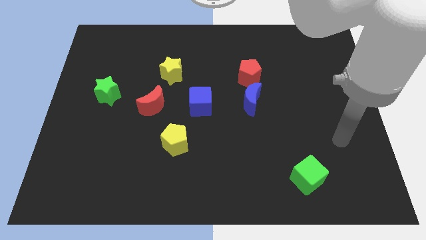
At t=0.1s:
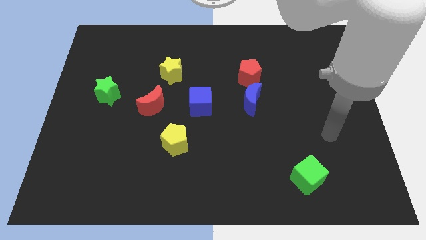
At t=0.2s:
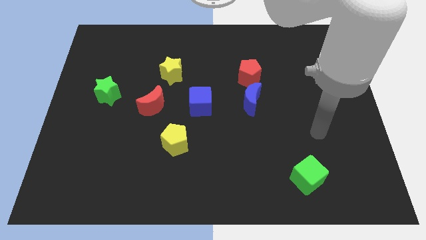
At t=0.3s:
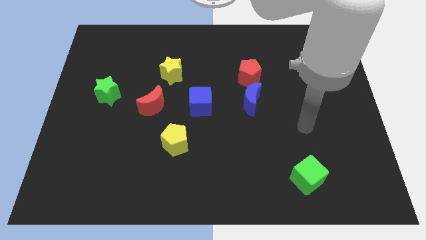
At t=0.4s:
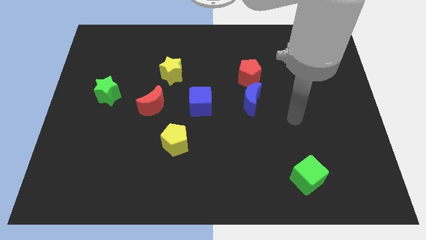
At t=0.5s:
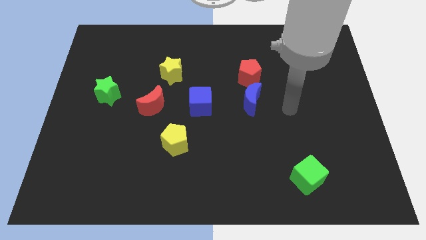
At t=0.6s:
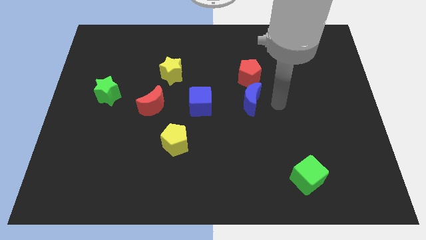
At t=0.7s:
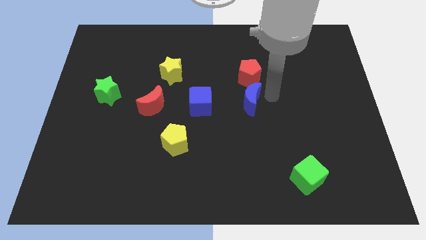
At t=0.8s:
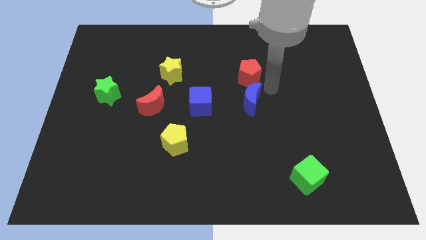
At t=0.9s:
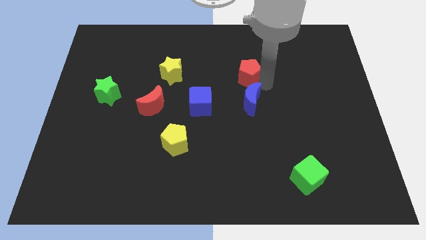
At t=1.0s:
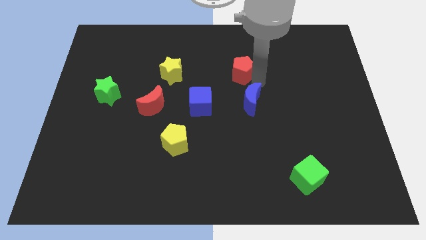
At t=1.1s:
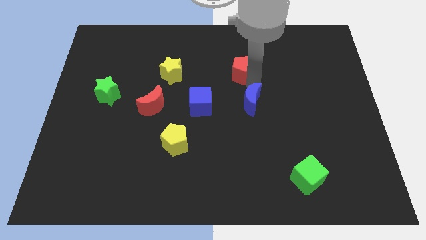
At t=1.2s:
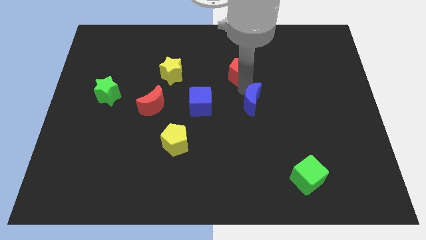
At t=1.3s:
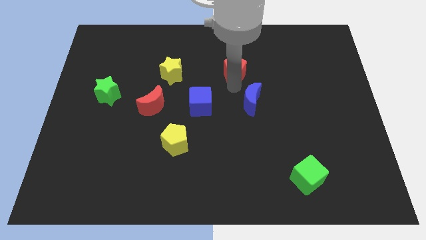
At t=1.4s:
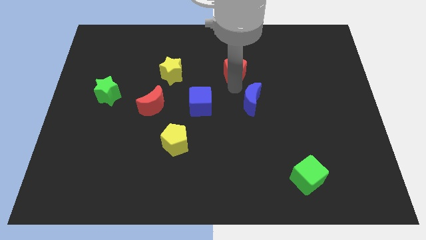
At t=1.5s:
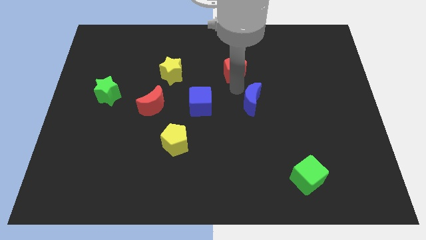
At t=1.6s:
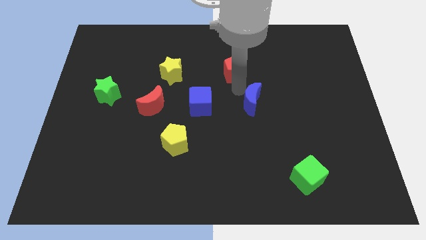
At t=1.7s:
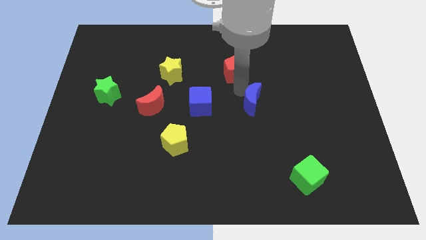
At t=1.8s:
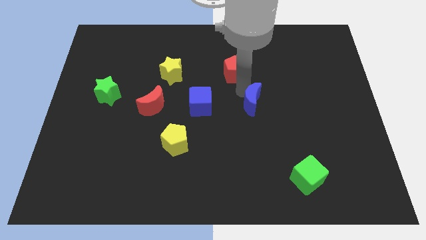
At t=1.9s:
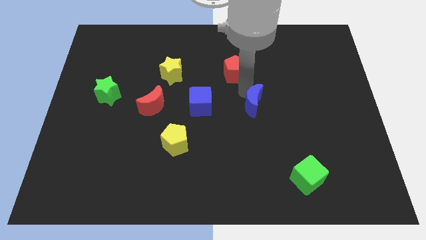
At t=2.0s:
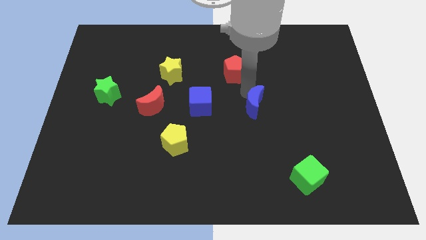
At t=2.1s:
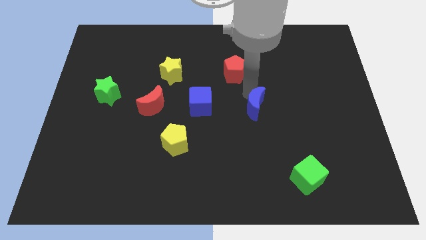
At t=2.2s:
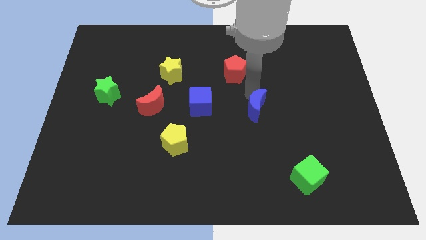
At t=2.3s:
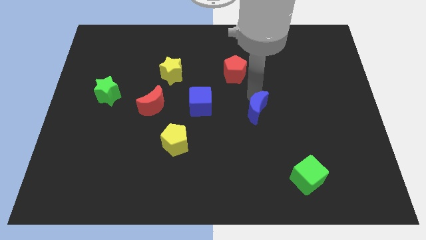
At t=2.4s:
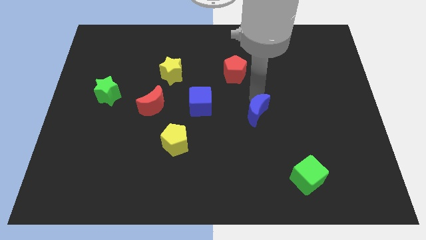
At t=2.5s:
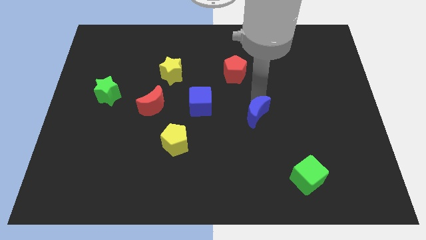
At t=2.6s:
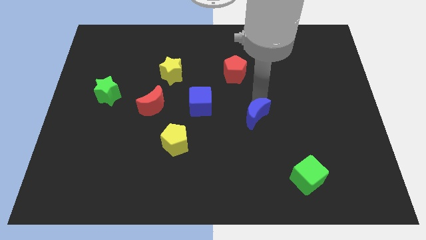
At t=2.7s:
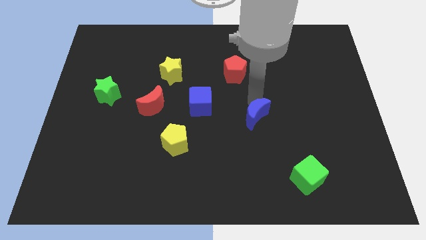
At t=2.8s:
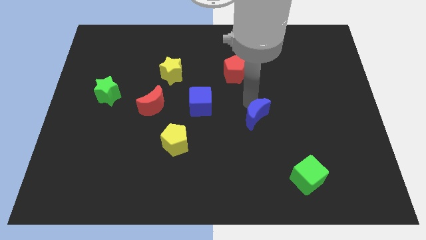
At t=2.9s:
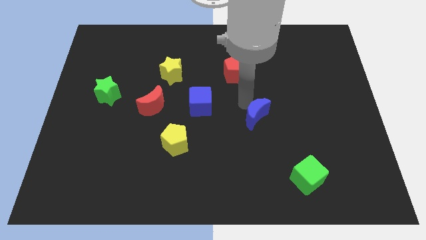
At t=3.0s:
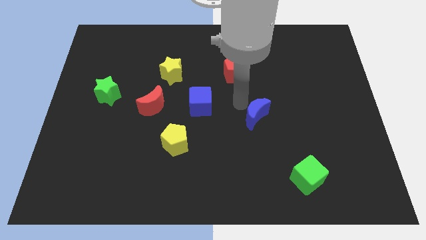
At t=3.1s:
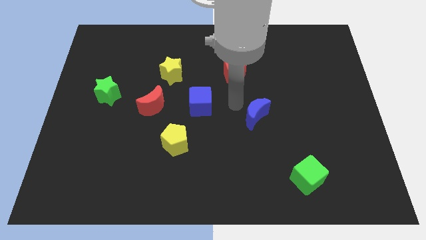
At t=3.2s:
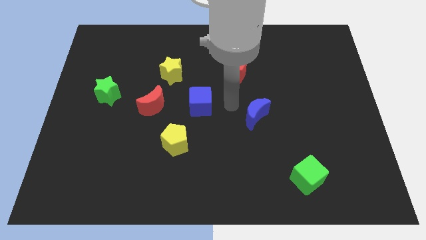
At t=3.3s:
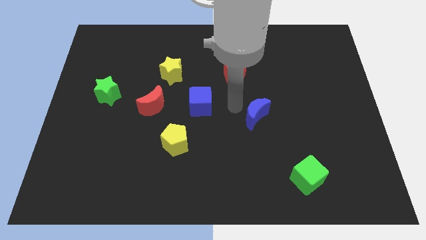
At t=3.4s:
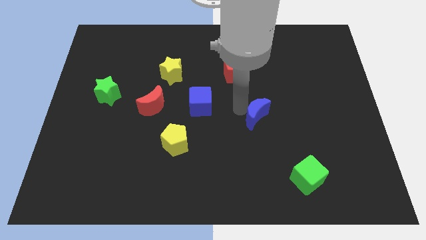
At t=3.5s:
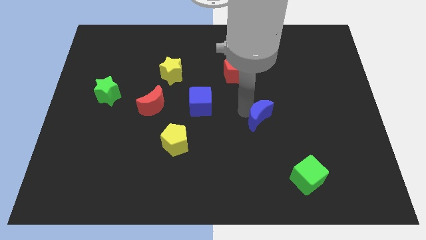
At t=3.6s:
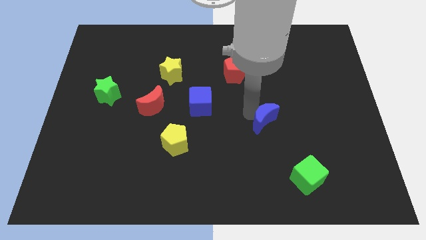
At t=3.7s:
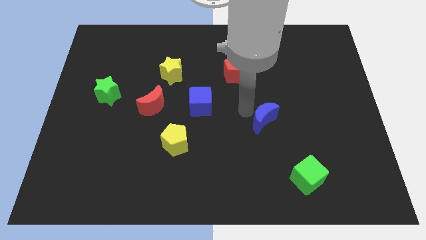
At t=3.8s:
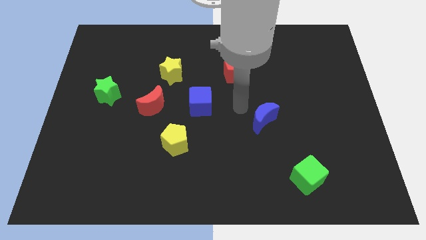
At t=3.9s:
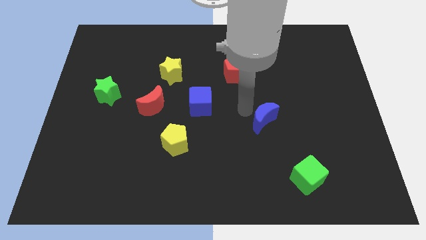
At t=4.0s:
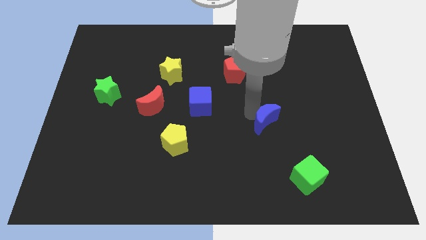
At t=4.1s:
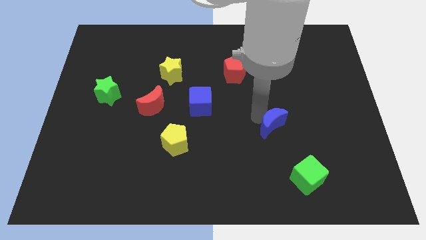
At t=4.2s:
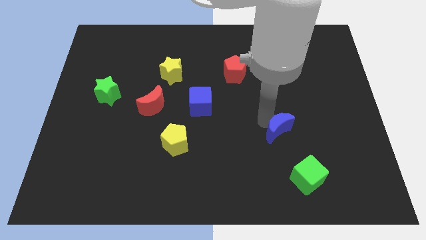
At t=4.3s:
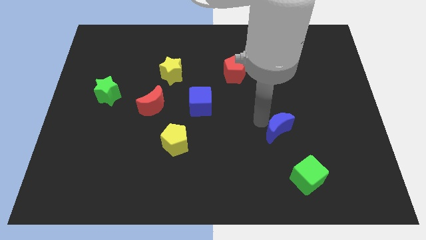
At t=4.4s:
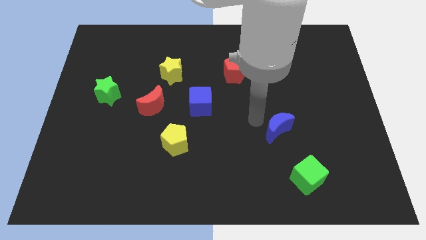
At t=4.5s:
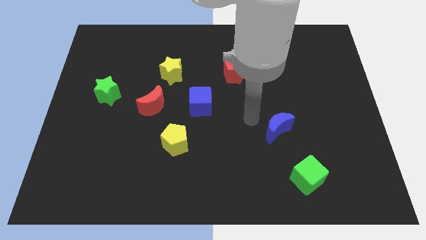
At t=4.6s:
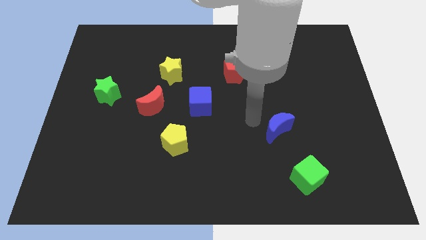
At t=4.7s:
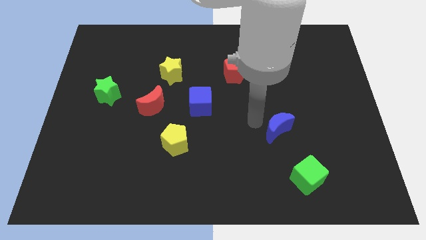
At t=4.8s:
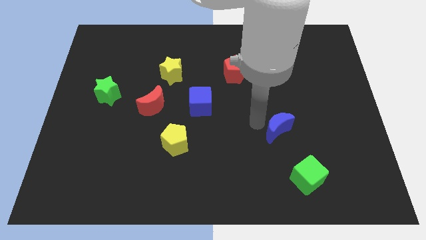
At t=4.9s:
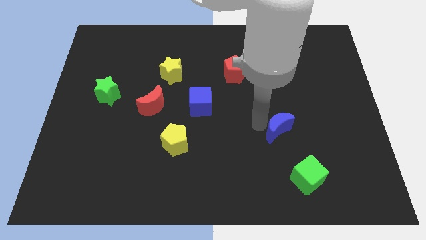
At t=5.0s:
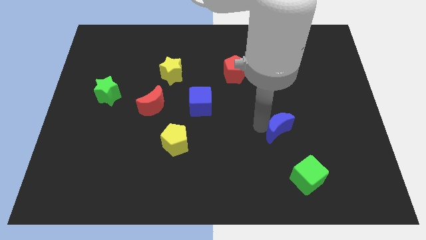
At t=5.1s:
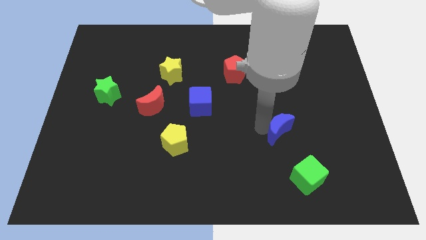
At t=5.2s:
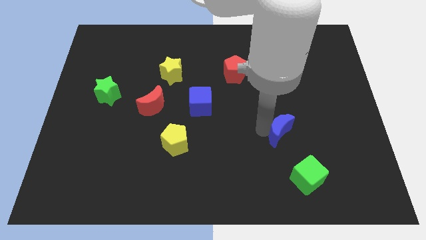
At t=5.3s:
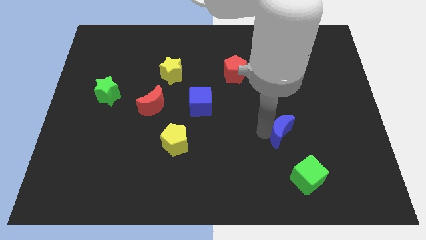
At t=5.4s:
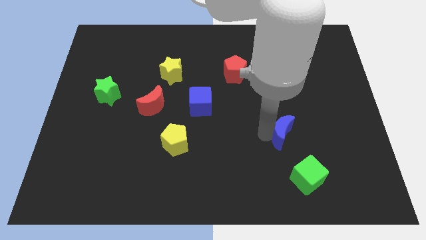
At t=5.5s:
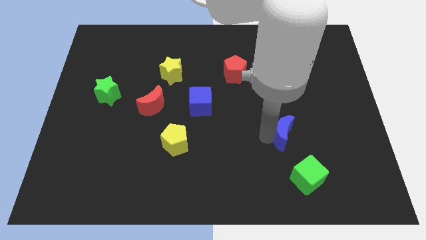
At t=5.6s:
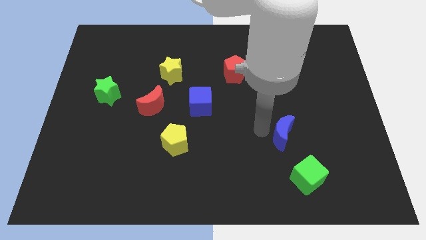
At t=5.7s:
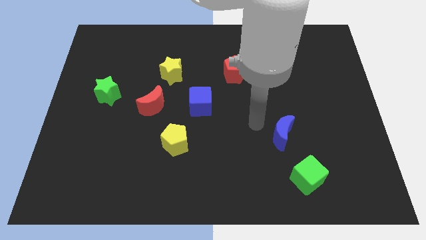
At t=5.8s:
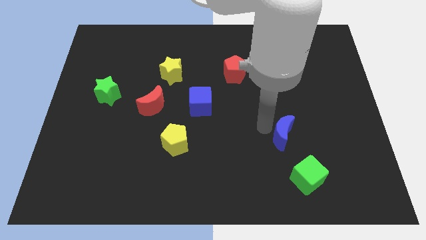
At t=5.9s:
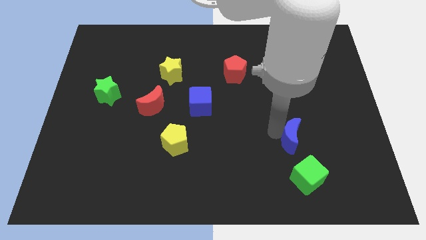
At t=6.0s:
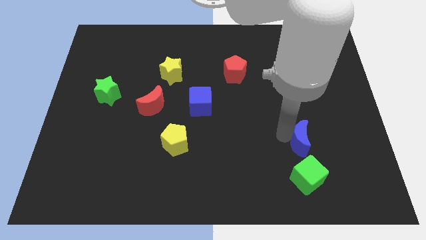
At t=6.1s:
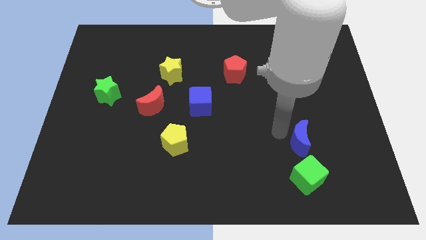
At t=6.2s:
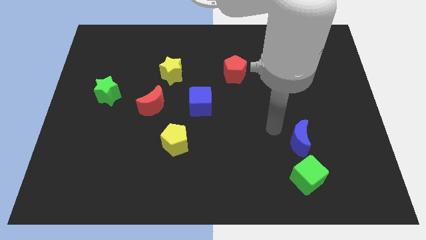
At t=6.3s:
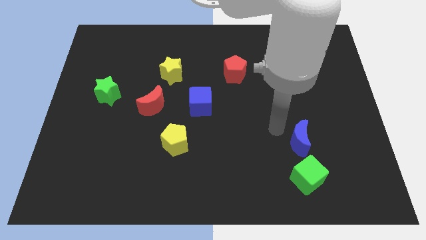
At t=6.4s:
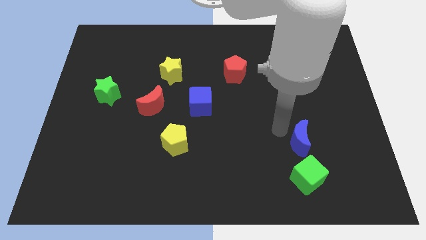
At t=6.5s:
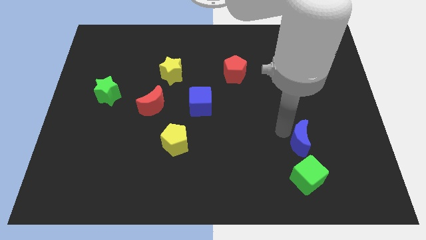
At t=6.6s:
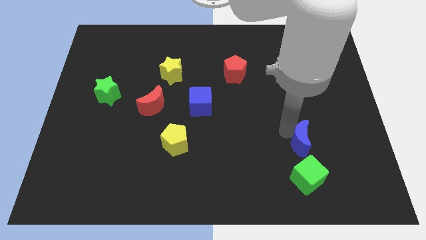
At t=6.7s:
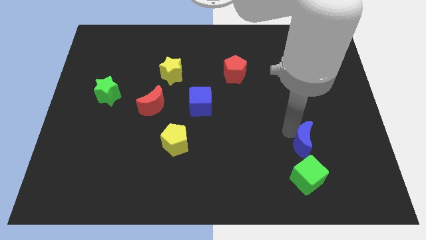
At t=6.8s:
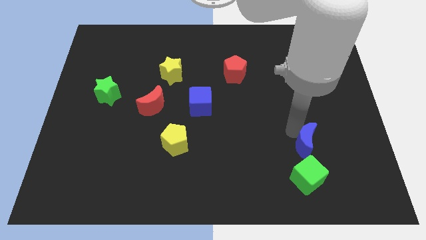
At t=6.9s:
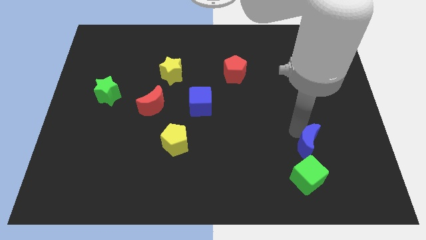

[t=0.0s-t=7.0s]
put the blue moon diagonally up and to the right of the green cube

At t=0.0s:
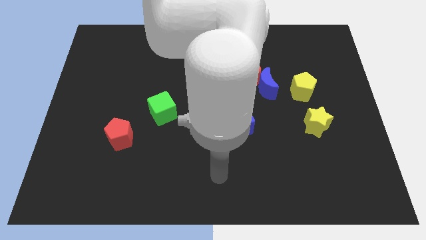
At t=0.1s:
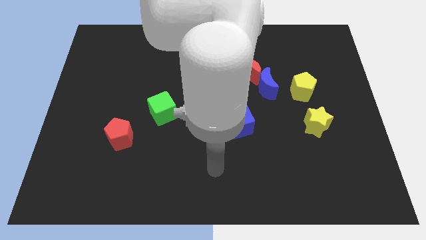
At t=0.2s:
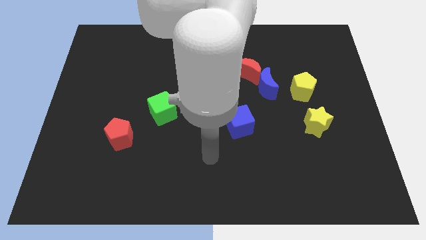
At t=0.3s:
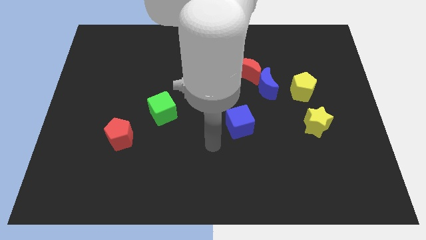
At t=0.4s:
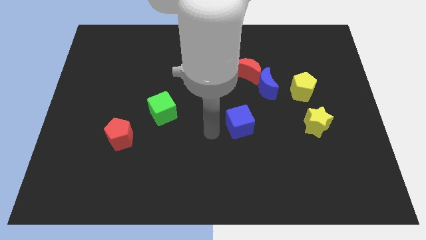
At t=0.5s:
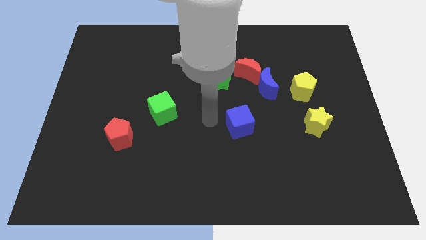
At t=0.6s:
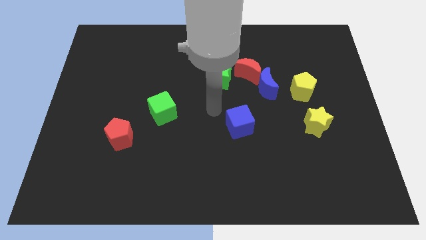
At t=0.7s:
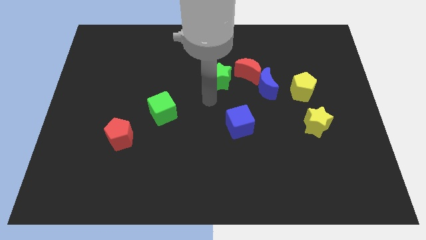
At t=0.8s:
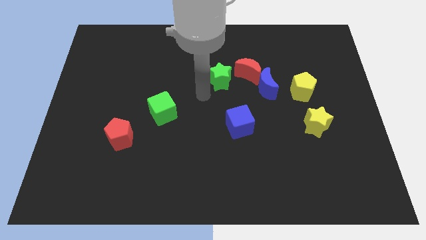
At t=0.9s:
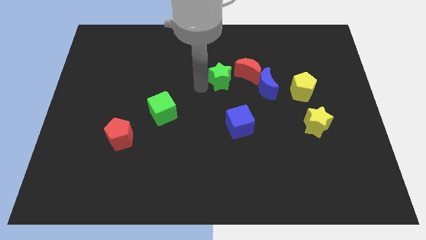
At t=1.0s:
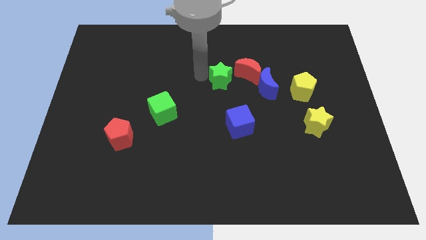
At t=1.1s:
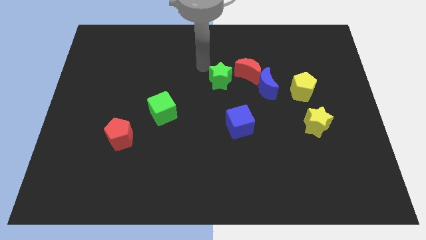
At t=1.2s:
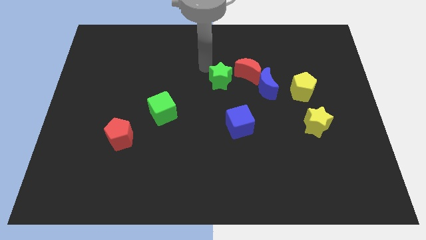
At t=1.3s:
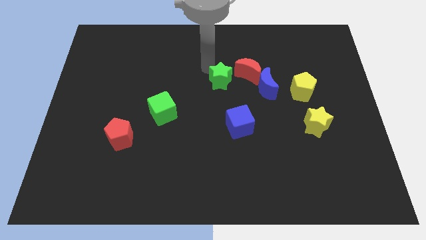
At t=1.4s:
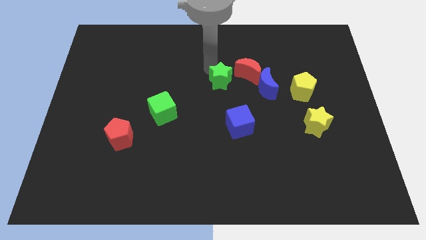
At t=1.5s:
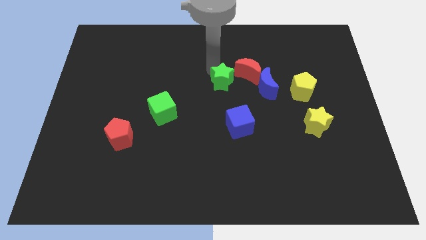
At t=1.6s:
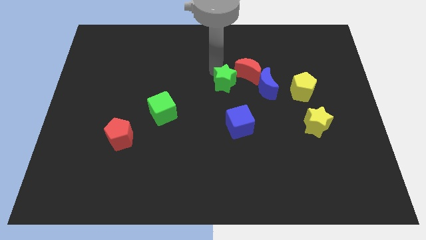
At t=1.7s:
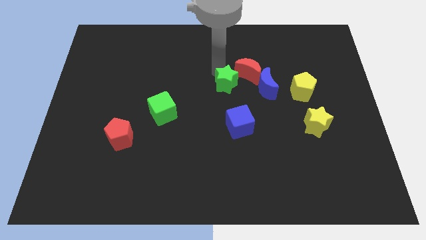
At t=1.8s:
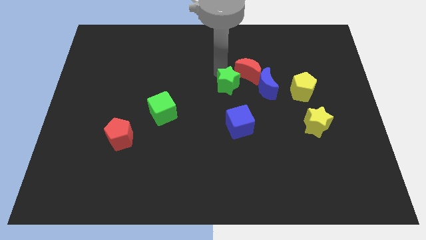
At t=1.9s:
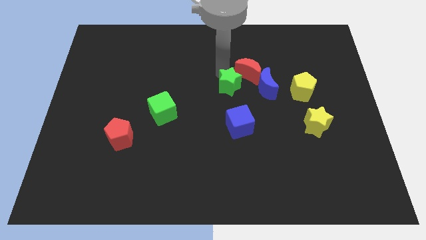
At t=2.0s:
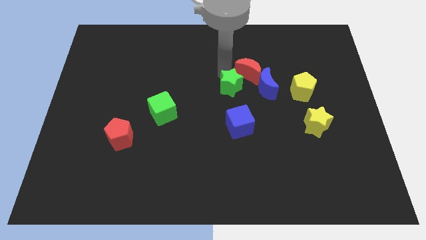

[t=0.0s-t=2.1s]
move the green star to the bottom side of the red moon
